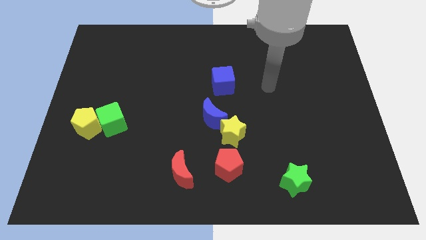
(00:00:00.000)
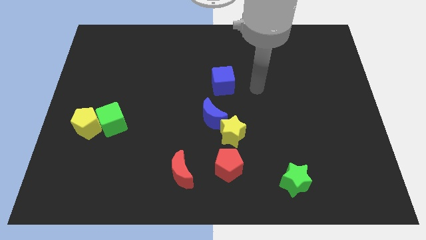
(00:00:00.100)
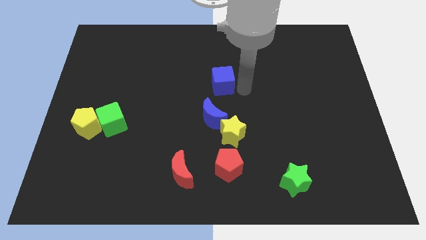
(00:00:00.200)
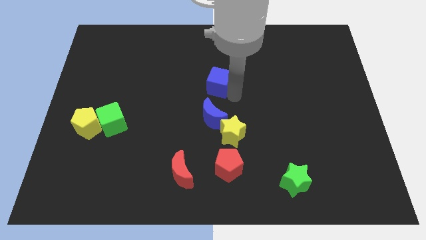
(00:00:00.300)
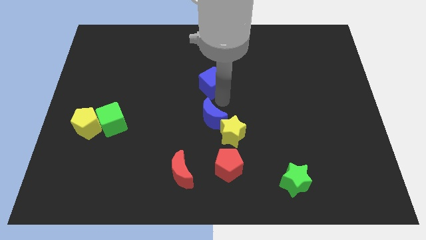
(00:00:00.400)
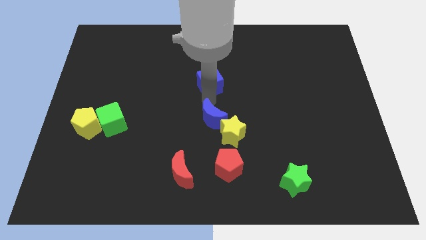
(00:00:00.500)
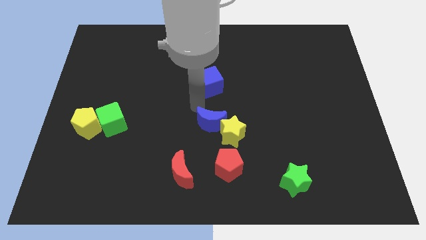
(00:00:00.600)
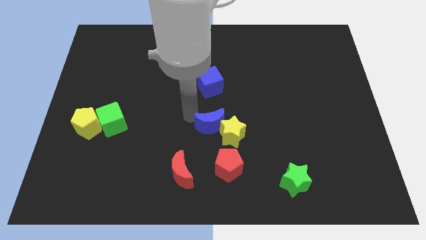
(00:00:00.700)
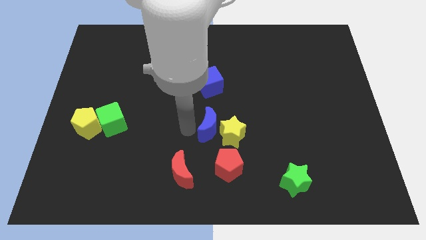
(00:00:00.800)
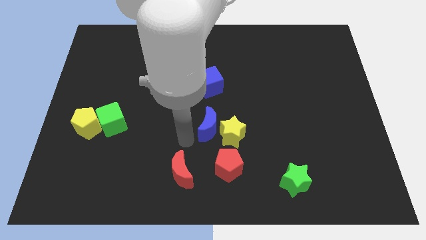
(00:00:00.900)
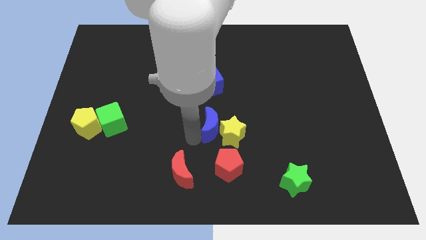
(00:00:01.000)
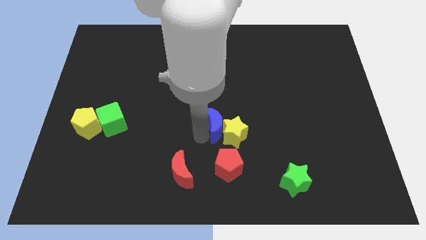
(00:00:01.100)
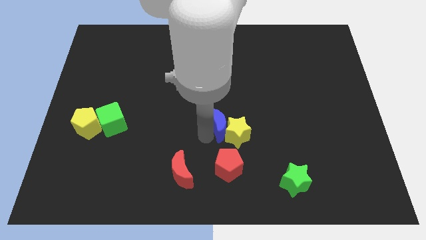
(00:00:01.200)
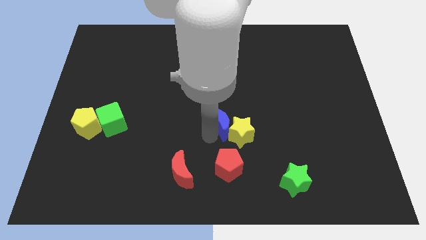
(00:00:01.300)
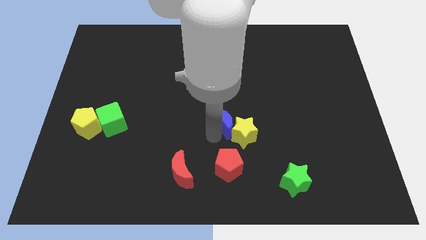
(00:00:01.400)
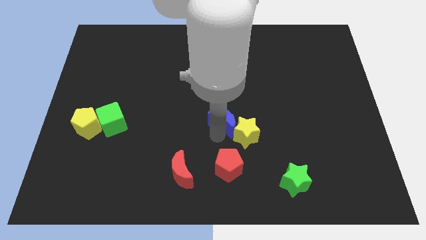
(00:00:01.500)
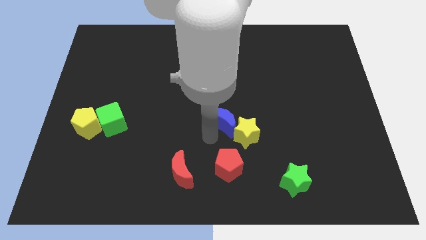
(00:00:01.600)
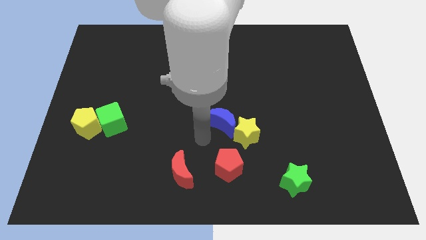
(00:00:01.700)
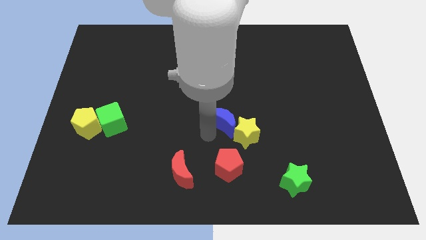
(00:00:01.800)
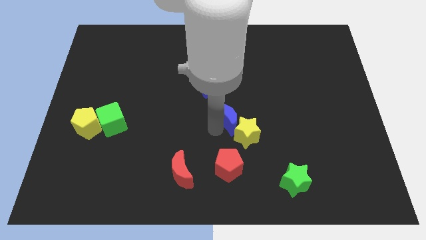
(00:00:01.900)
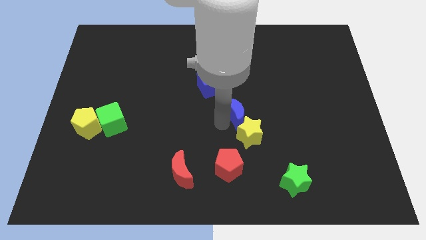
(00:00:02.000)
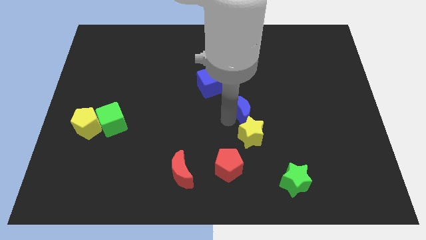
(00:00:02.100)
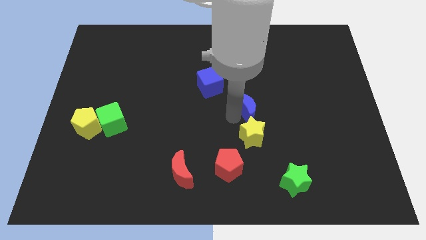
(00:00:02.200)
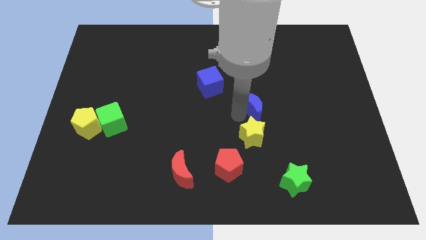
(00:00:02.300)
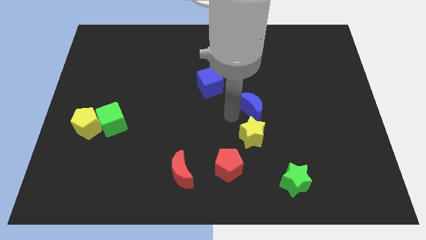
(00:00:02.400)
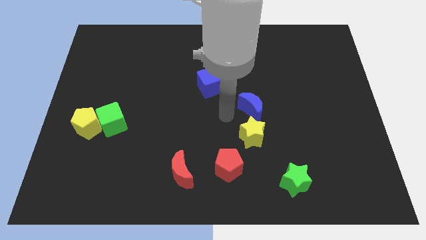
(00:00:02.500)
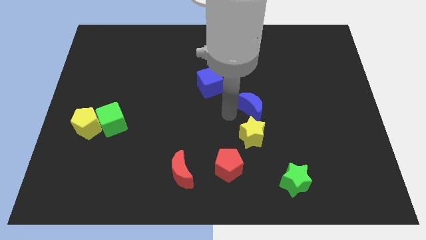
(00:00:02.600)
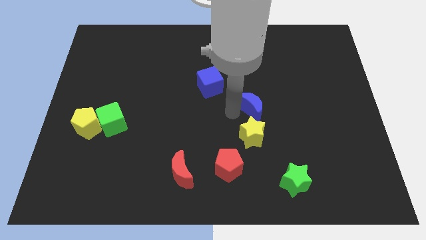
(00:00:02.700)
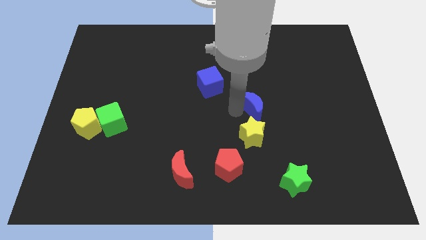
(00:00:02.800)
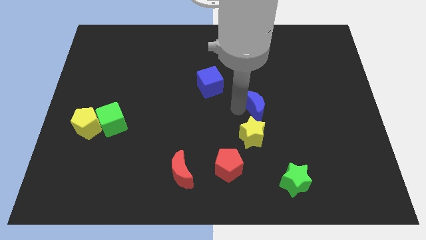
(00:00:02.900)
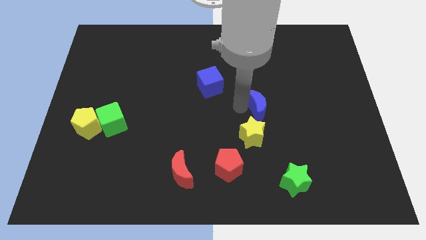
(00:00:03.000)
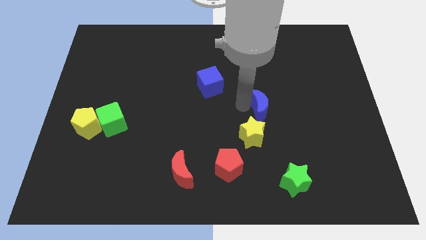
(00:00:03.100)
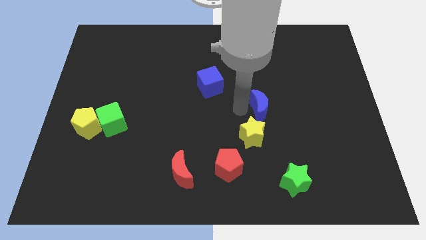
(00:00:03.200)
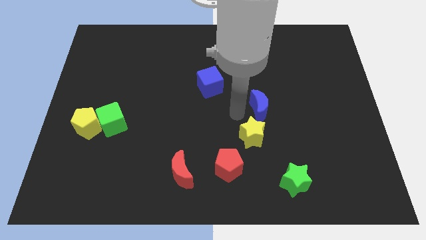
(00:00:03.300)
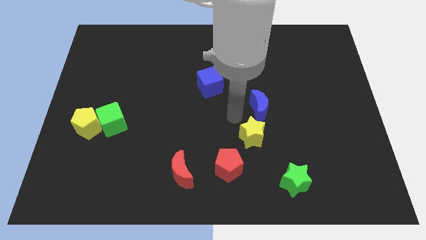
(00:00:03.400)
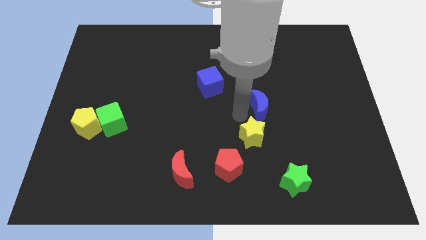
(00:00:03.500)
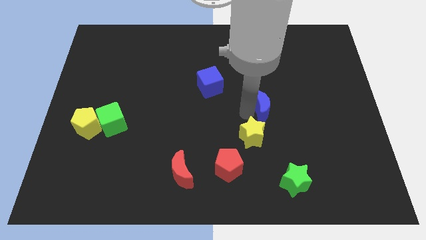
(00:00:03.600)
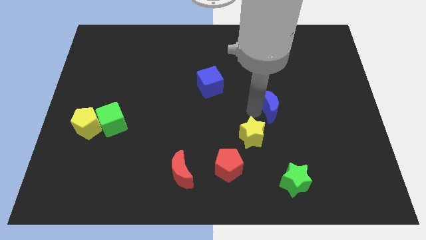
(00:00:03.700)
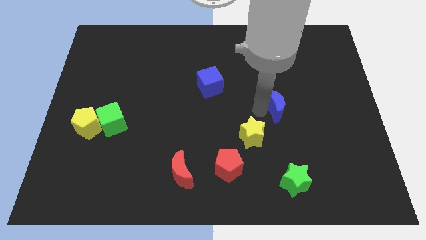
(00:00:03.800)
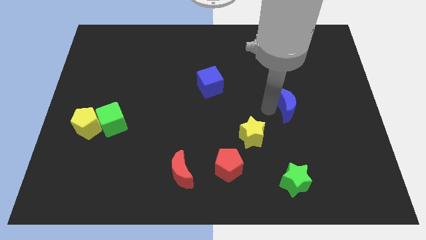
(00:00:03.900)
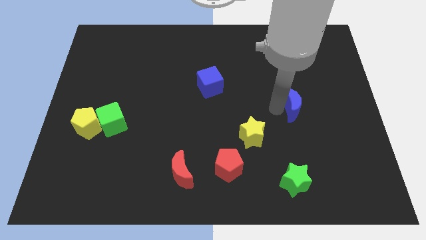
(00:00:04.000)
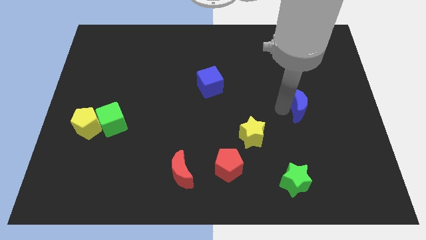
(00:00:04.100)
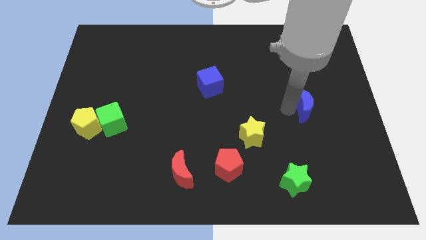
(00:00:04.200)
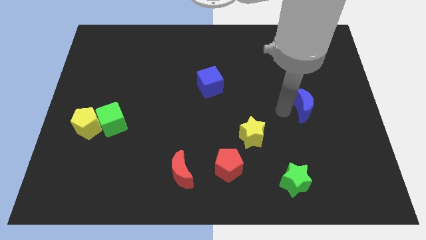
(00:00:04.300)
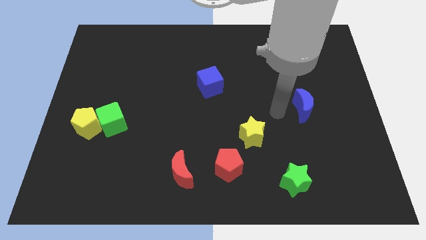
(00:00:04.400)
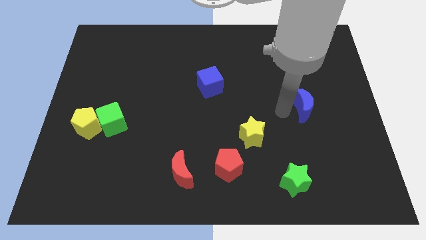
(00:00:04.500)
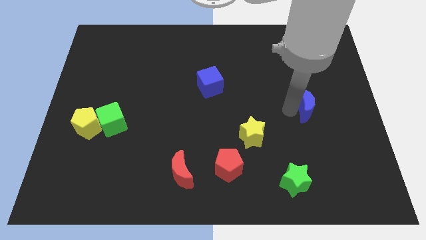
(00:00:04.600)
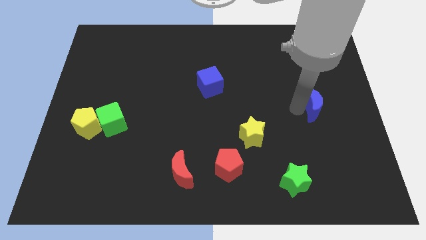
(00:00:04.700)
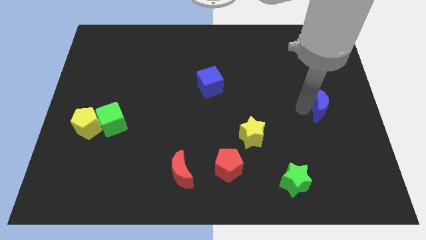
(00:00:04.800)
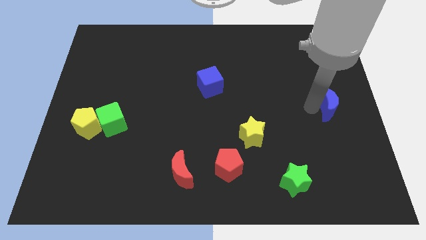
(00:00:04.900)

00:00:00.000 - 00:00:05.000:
put the blue moon to the right side
